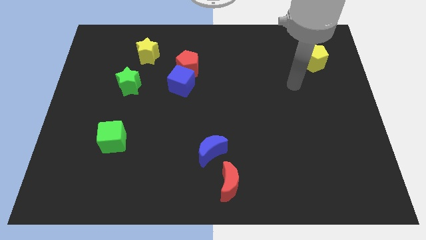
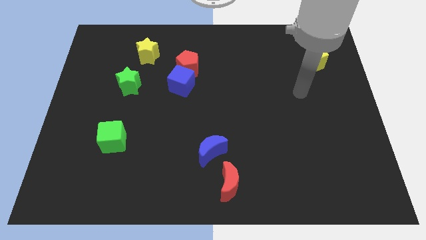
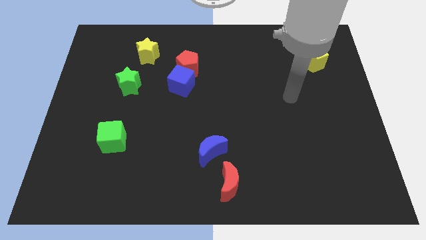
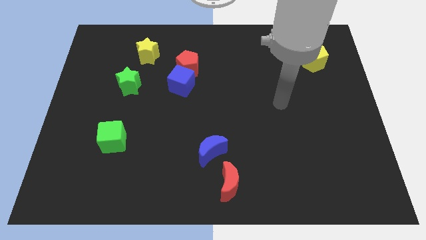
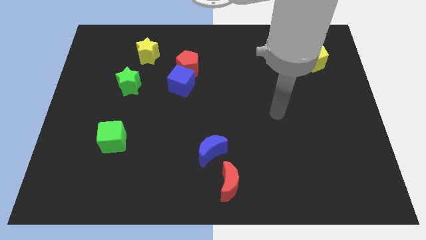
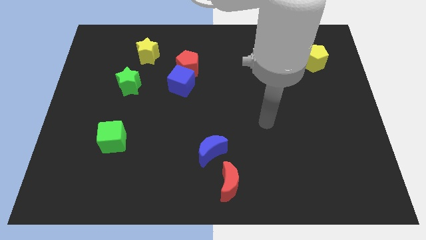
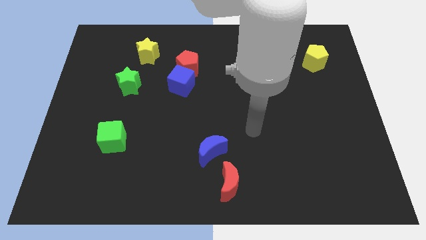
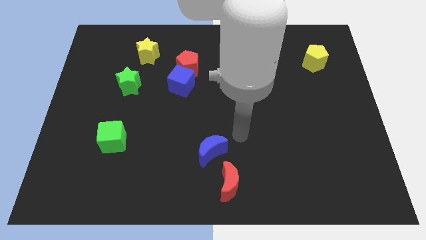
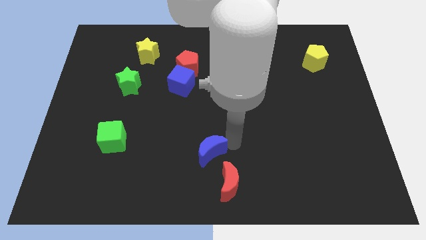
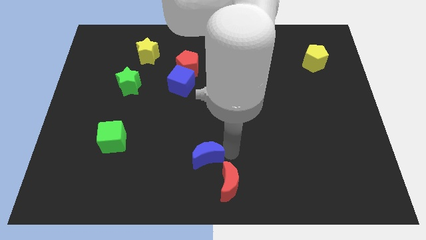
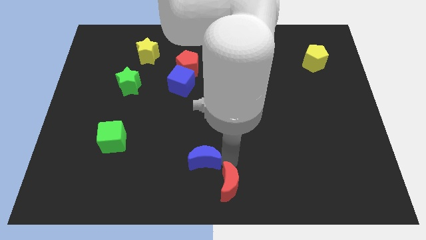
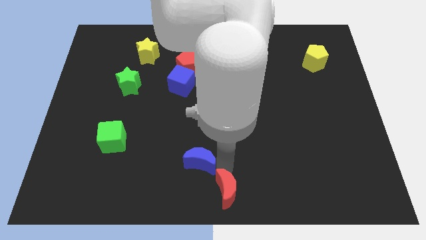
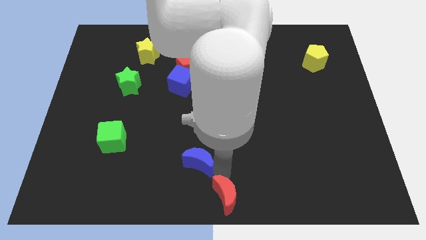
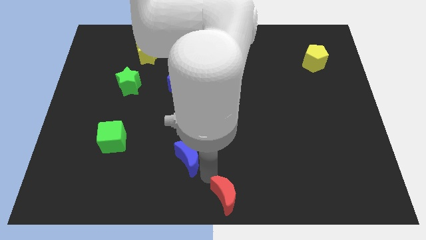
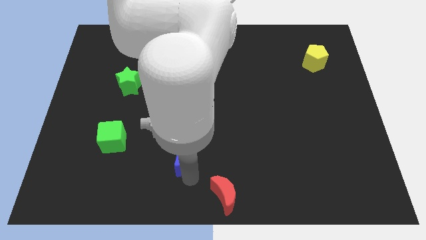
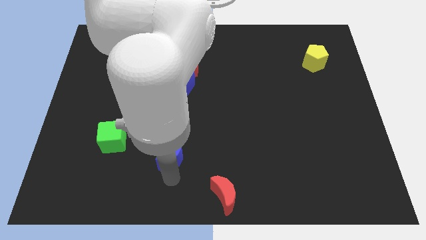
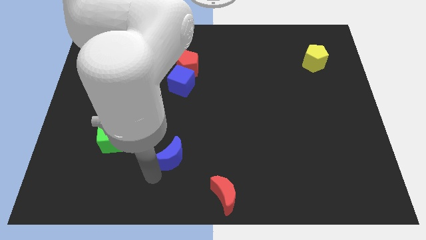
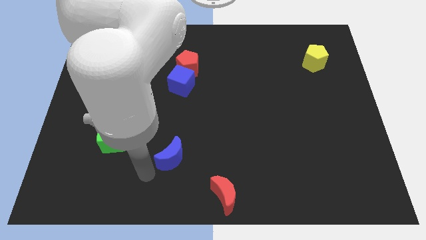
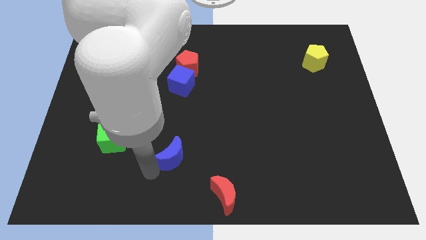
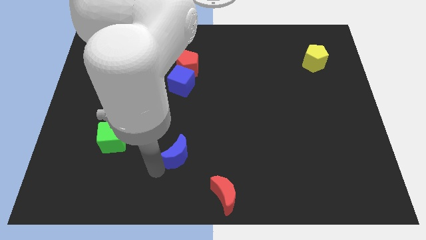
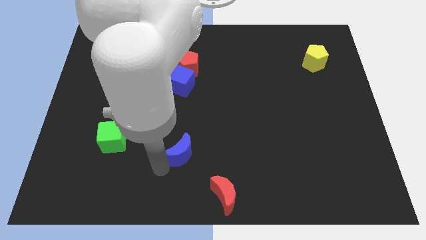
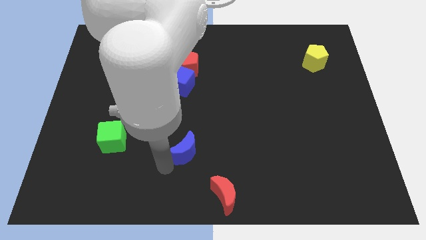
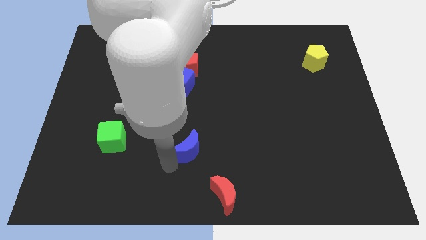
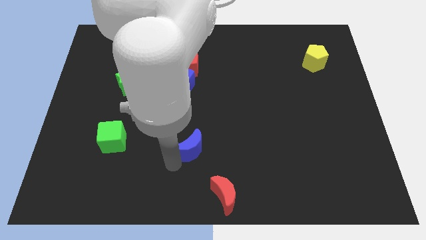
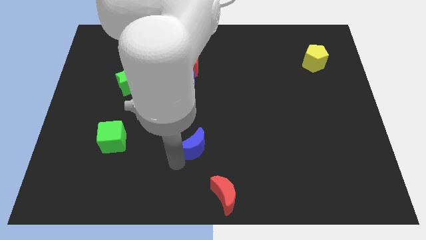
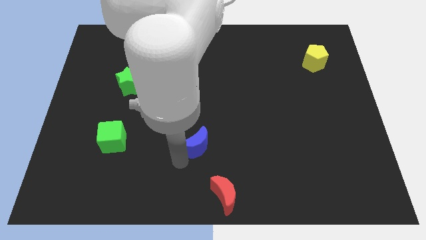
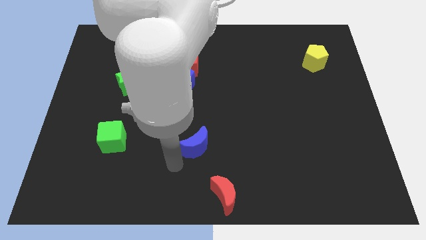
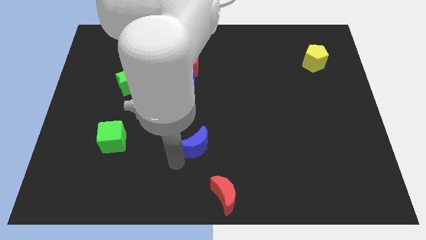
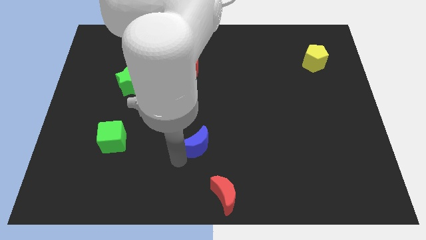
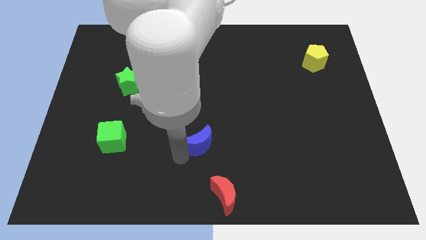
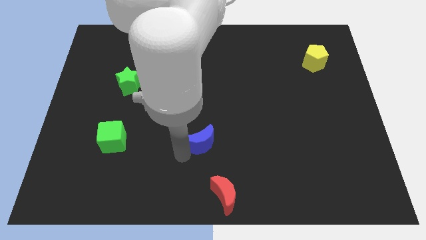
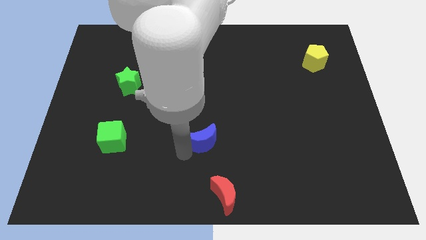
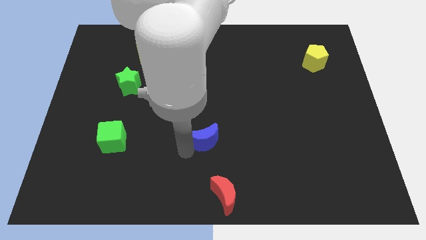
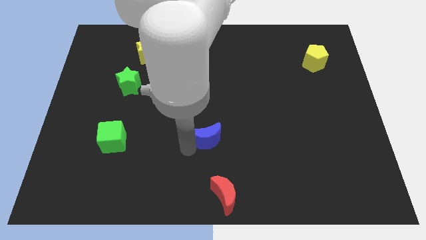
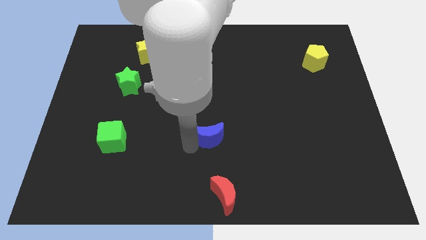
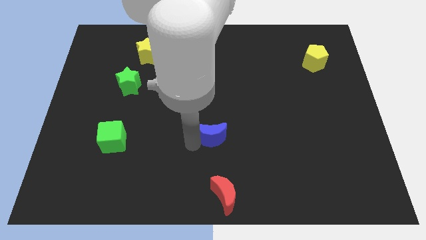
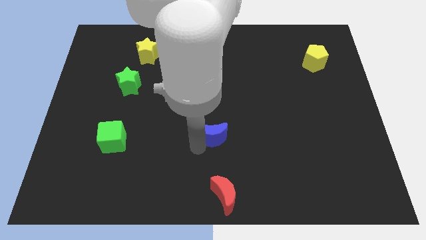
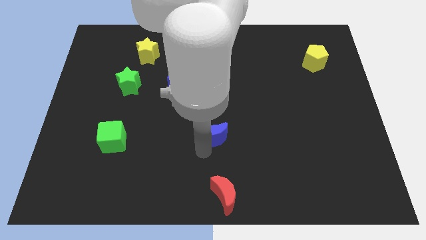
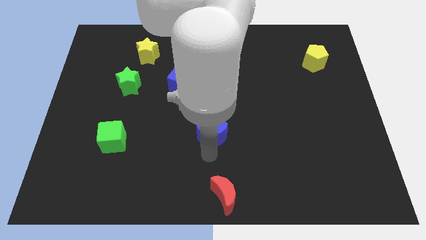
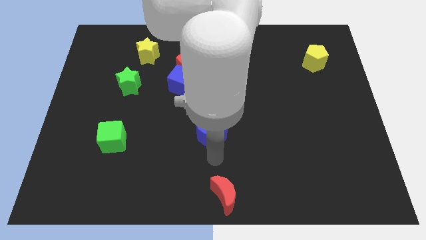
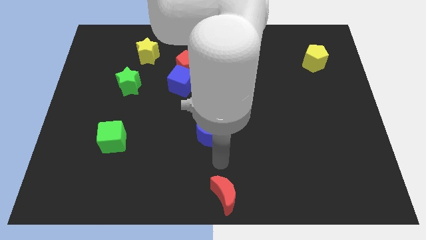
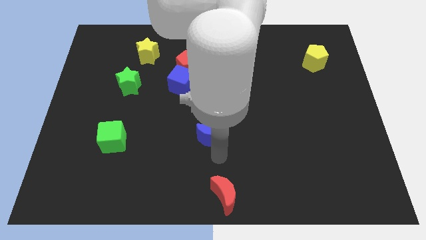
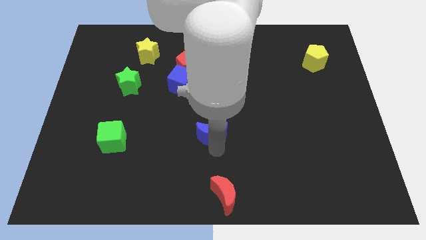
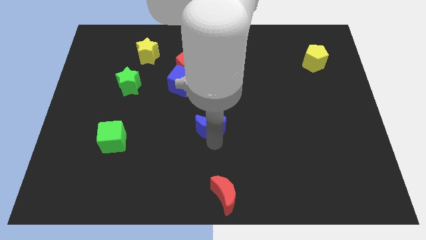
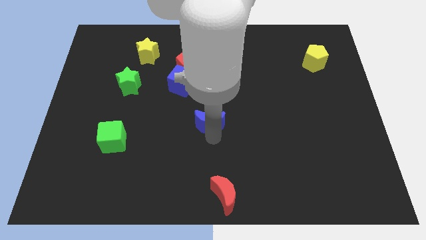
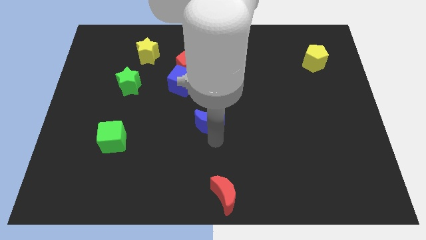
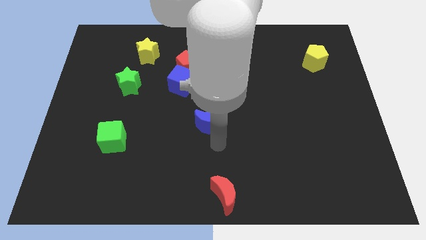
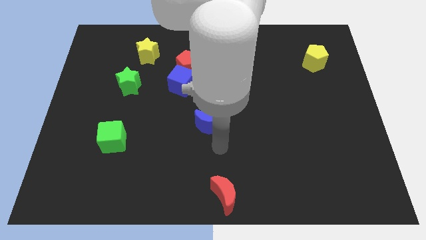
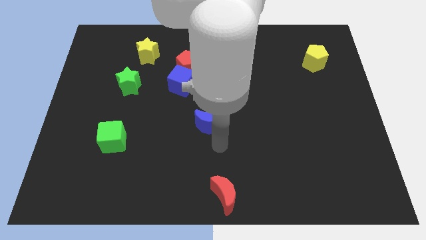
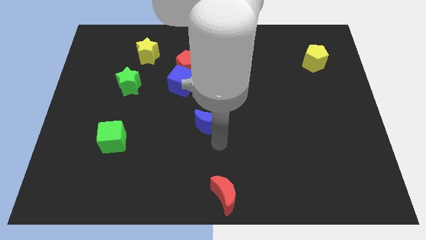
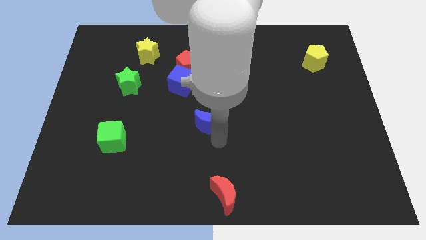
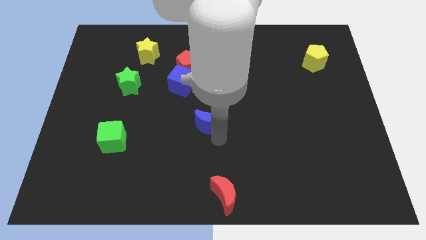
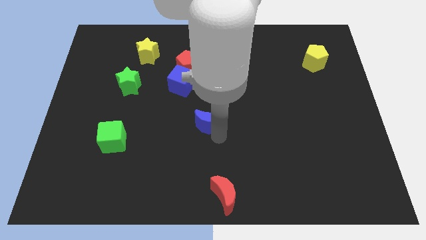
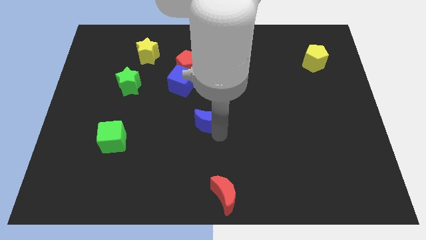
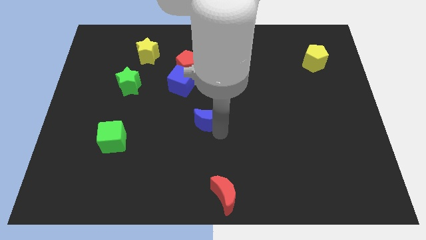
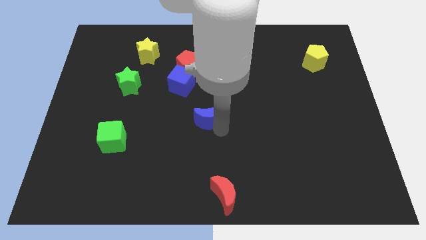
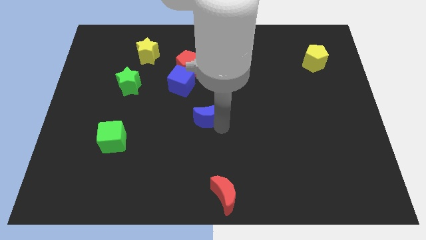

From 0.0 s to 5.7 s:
push the blue moon to the bottom right of the blue cube

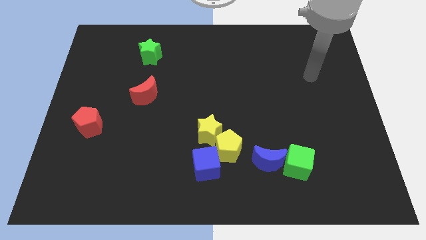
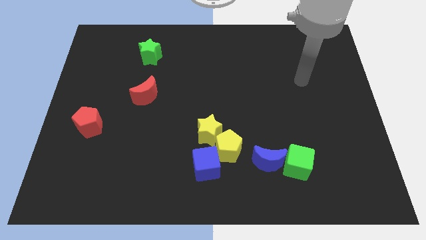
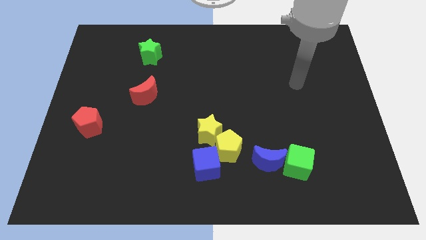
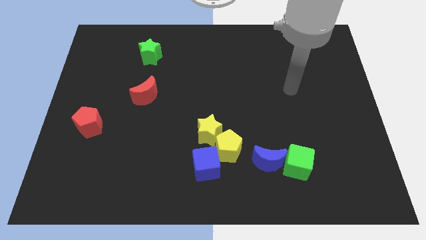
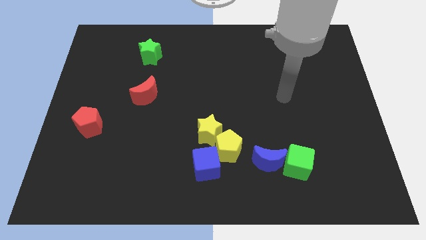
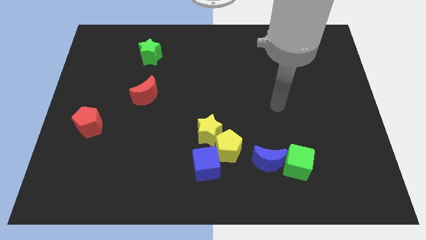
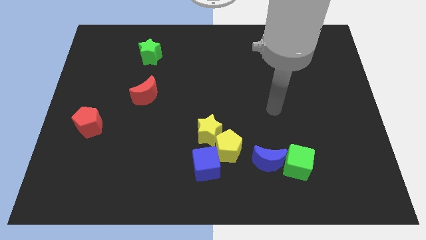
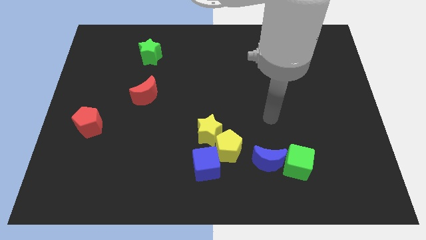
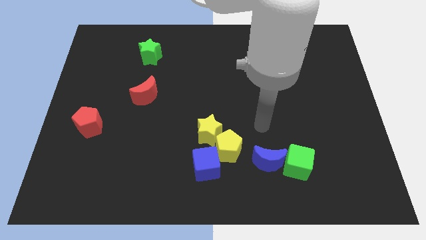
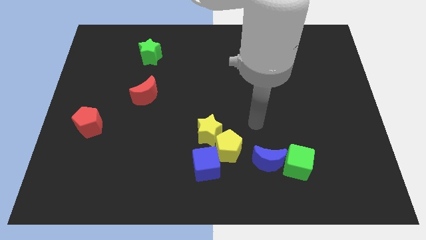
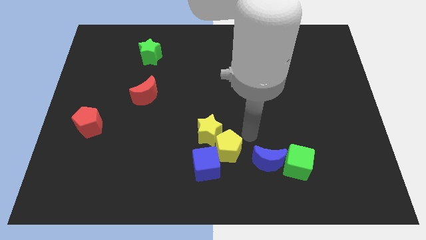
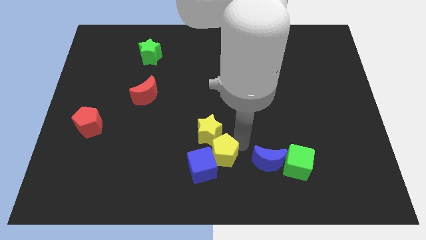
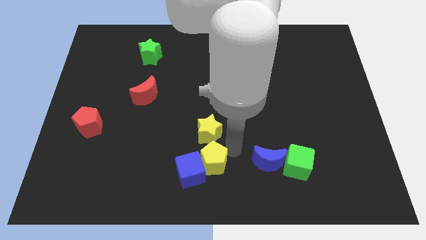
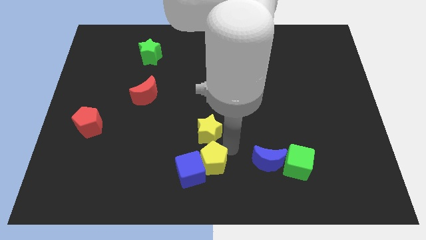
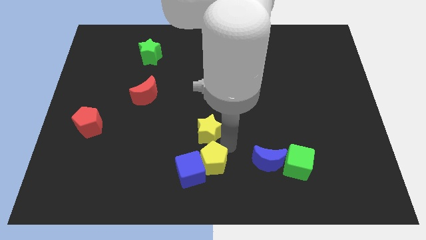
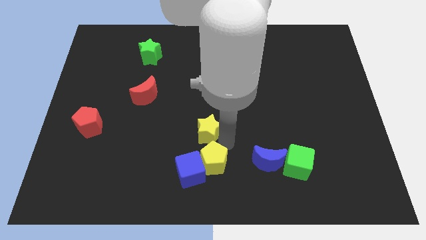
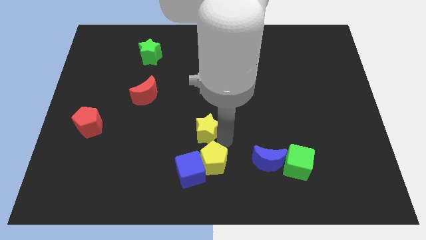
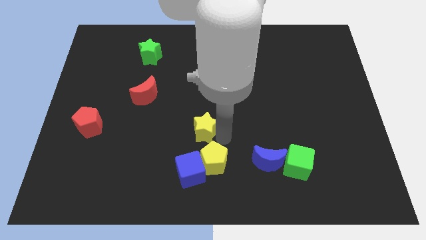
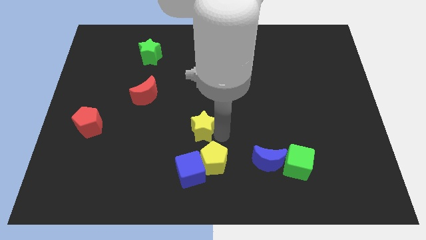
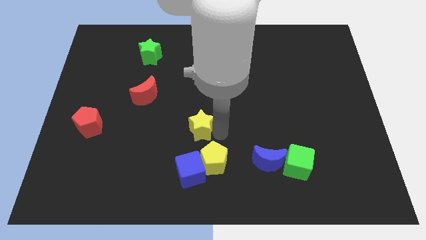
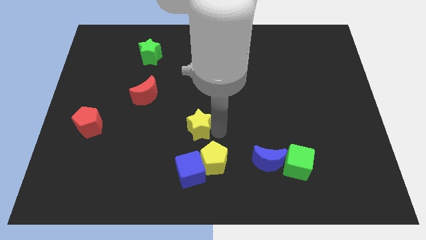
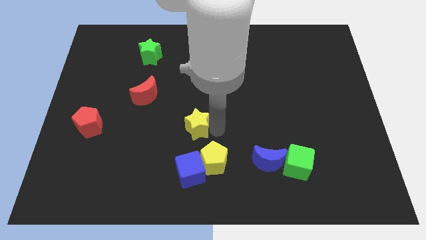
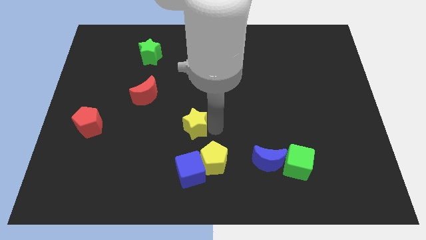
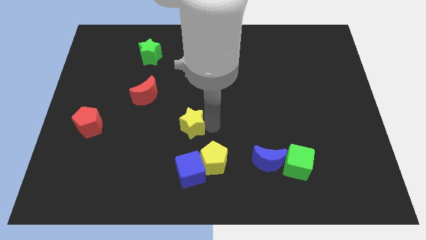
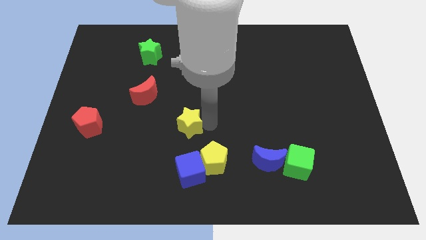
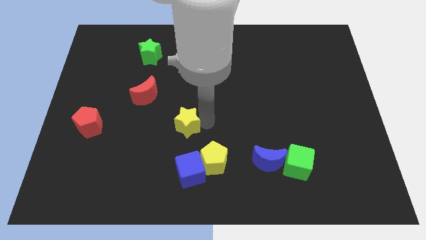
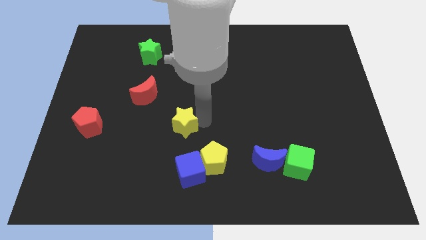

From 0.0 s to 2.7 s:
put the yellow star to the bottom right of the red moon

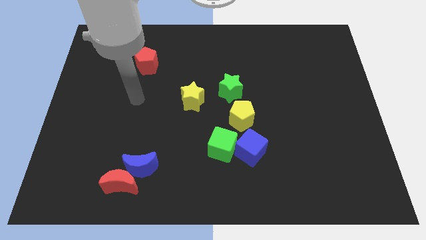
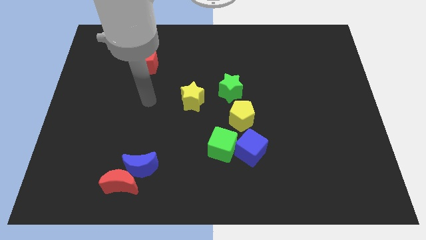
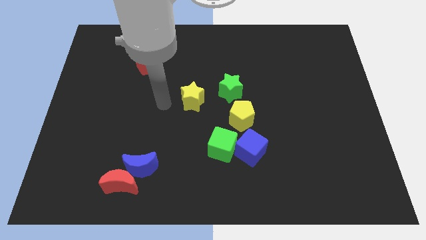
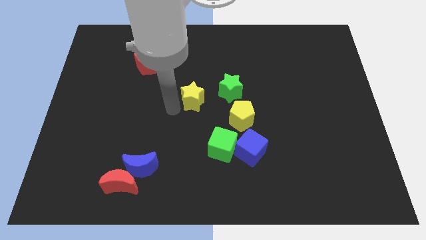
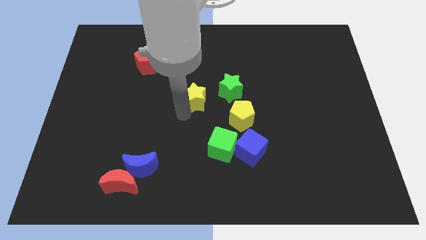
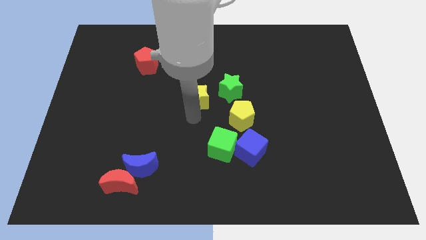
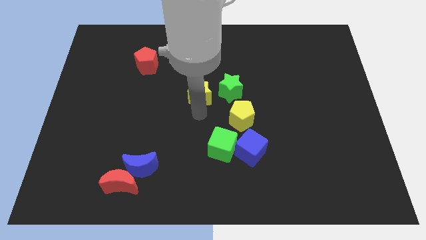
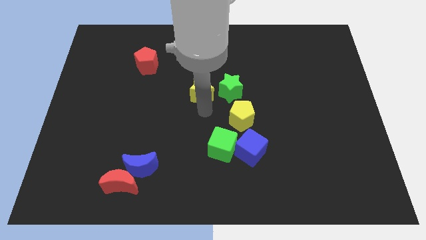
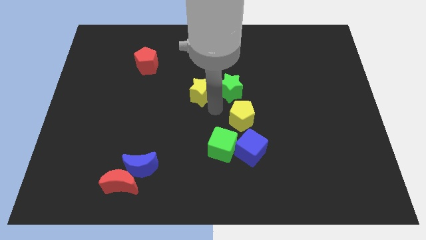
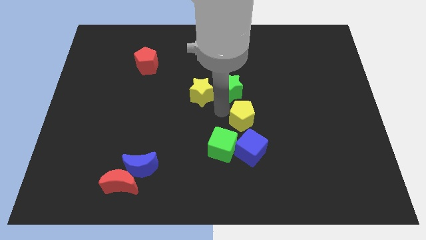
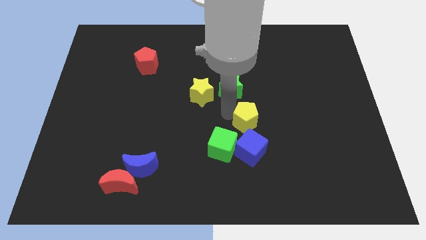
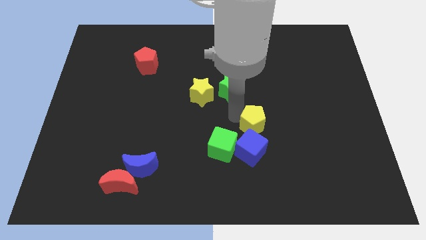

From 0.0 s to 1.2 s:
push the yellow pentagon diagonally up and to the right of the blue cube
